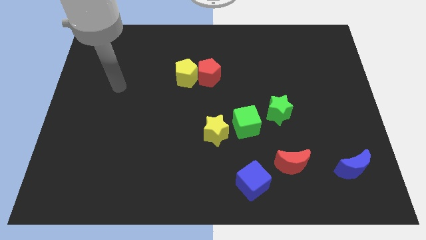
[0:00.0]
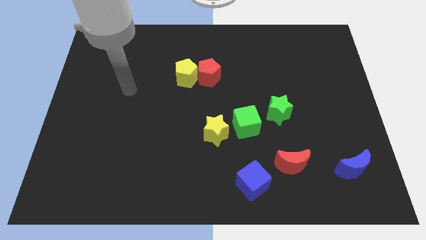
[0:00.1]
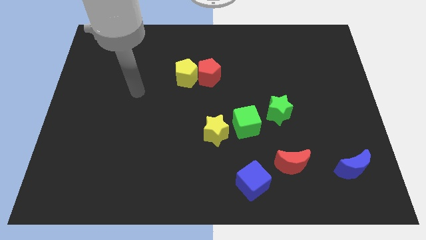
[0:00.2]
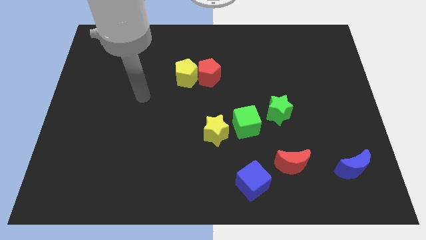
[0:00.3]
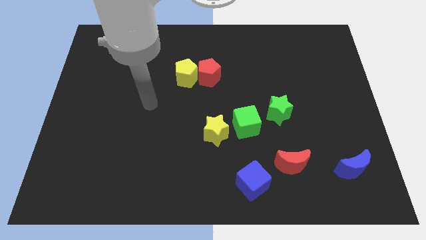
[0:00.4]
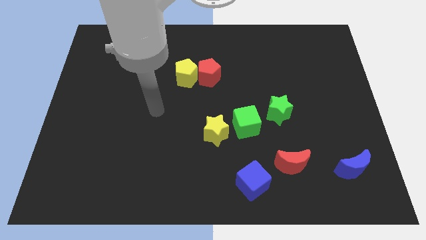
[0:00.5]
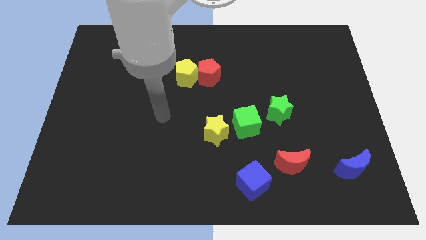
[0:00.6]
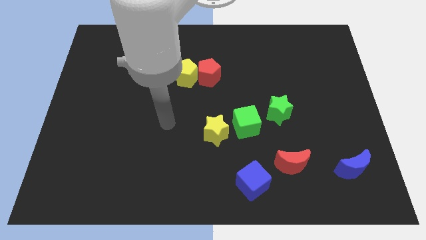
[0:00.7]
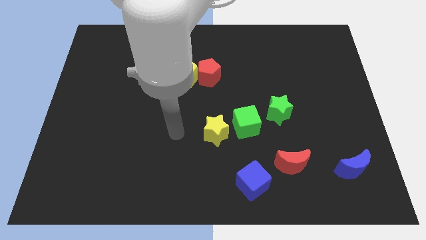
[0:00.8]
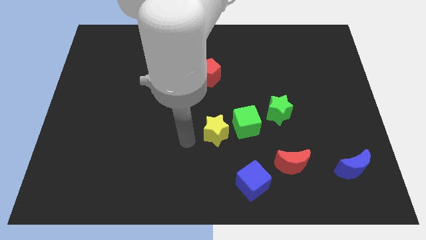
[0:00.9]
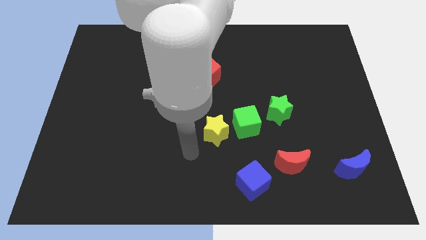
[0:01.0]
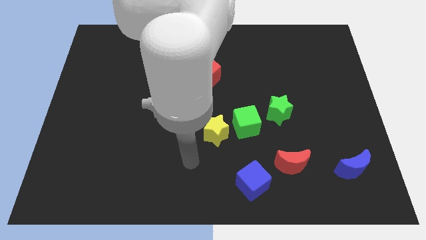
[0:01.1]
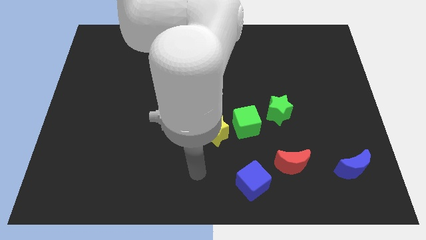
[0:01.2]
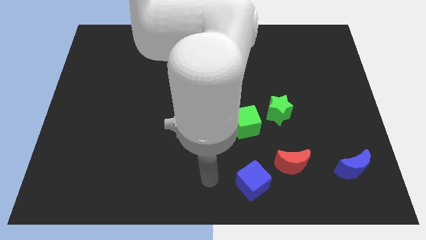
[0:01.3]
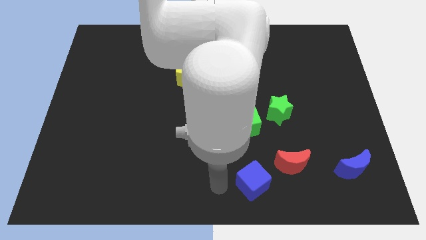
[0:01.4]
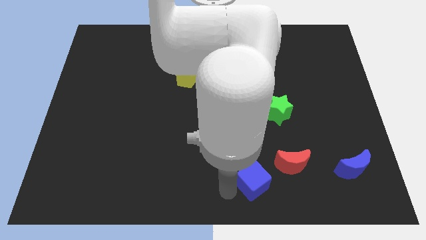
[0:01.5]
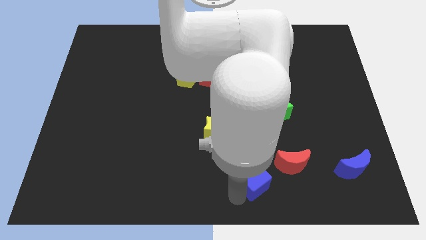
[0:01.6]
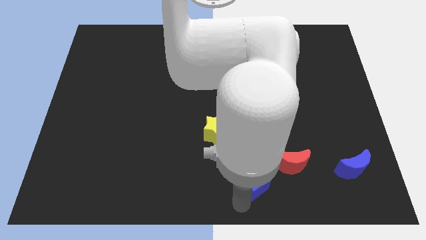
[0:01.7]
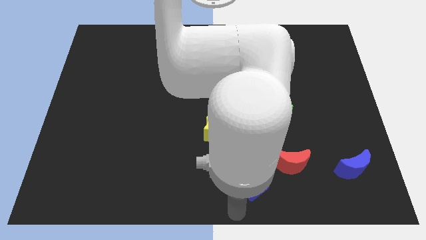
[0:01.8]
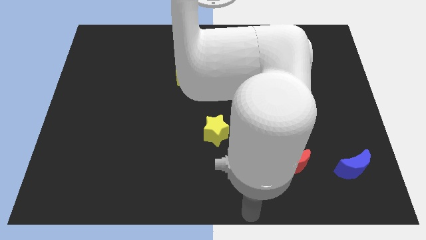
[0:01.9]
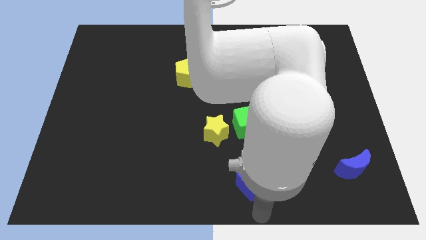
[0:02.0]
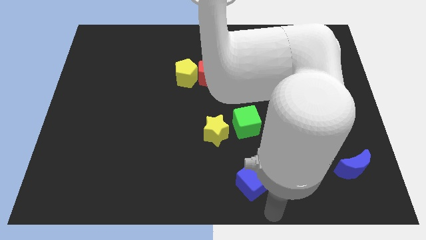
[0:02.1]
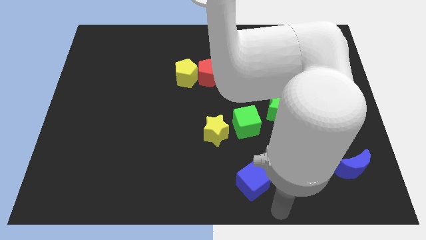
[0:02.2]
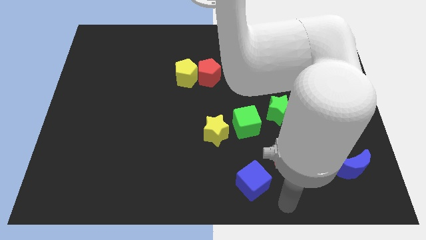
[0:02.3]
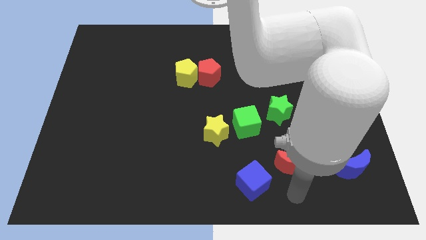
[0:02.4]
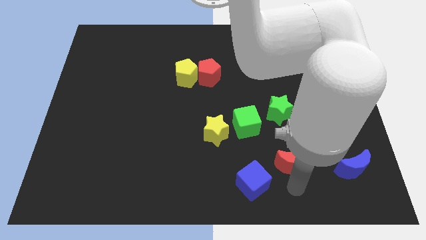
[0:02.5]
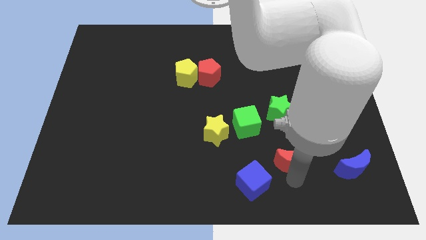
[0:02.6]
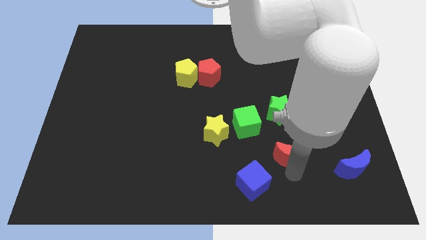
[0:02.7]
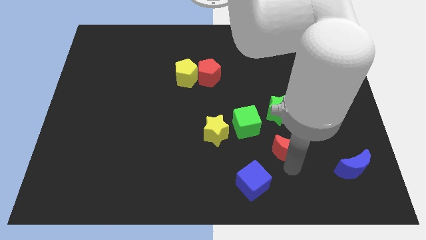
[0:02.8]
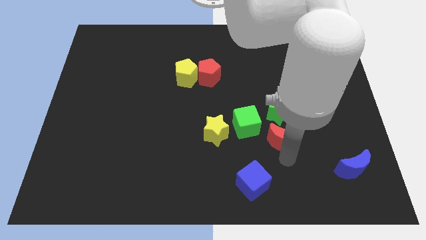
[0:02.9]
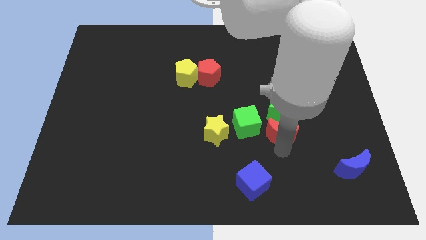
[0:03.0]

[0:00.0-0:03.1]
slightly move the red moon up

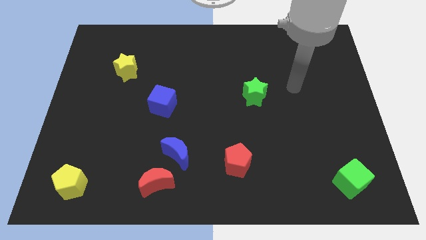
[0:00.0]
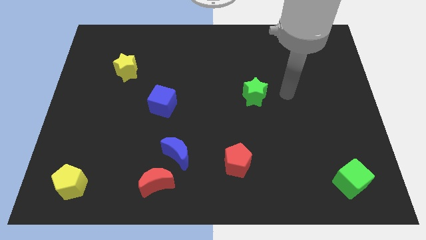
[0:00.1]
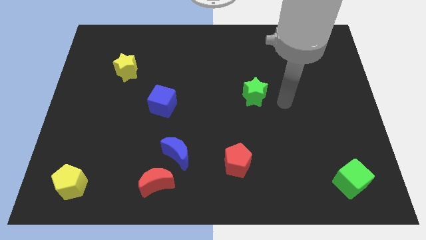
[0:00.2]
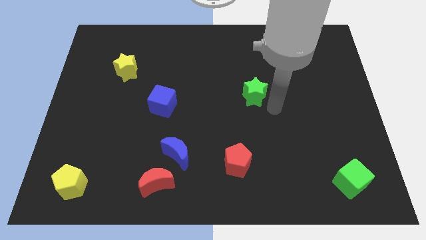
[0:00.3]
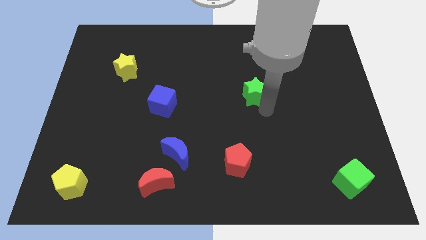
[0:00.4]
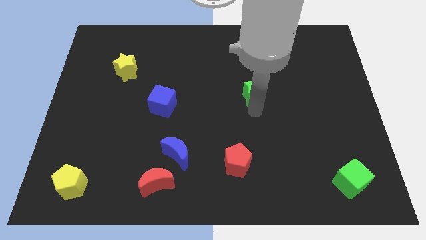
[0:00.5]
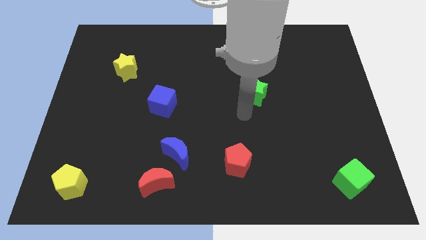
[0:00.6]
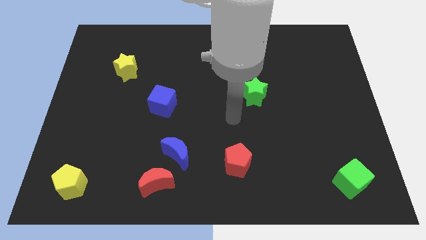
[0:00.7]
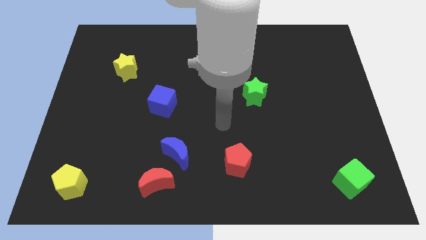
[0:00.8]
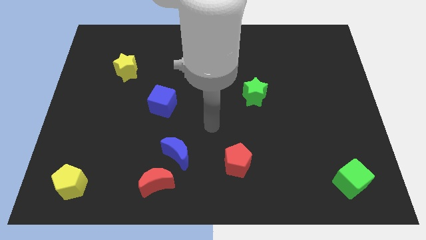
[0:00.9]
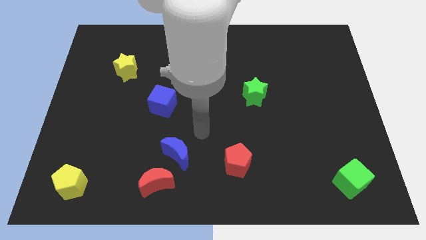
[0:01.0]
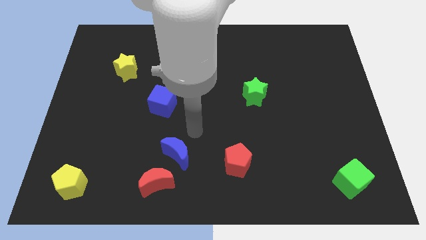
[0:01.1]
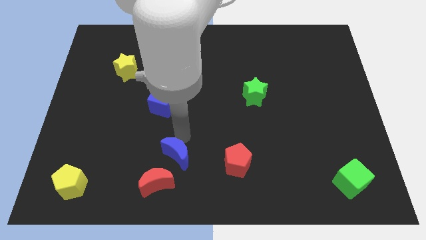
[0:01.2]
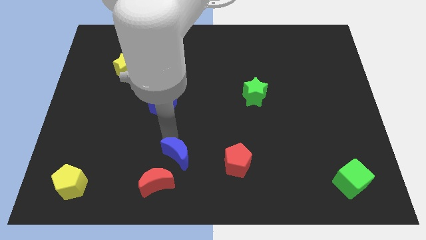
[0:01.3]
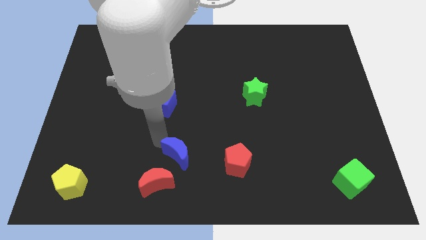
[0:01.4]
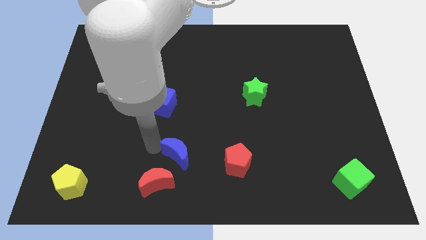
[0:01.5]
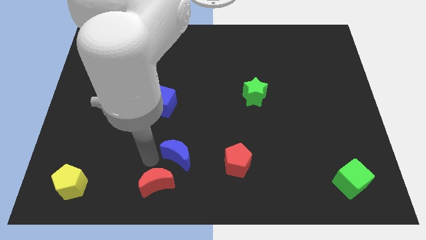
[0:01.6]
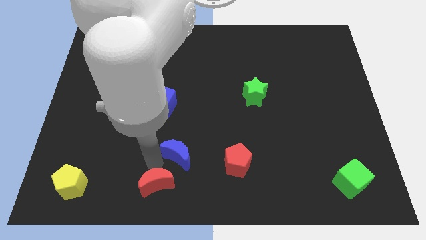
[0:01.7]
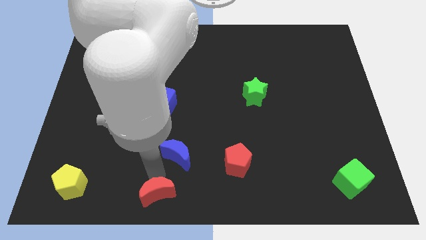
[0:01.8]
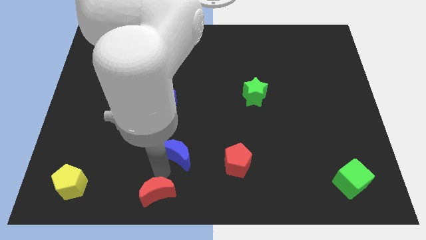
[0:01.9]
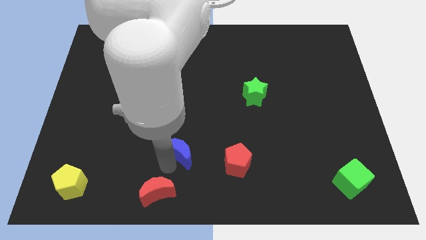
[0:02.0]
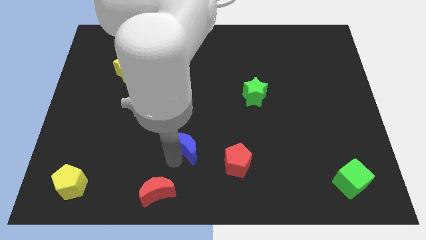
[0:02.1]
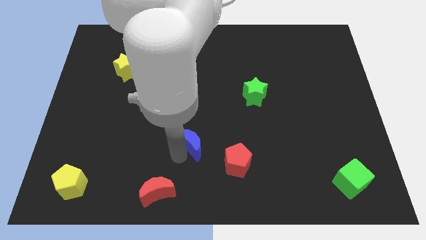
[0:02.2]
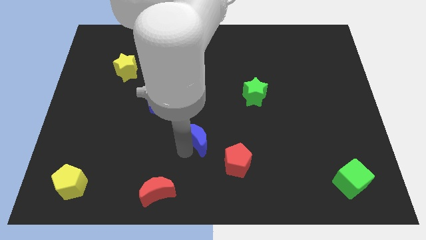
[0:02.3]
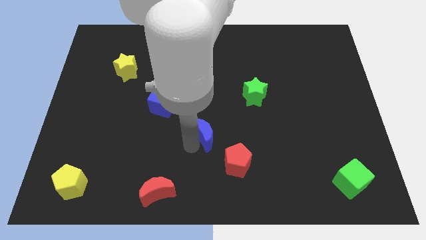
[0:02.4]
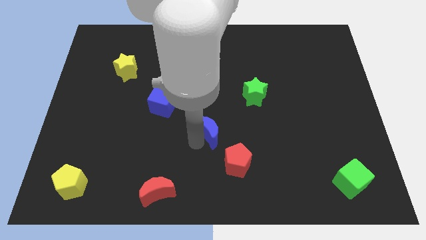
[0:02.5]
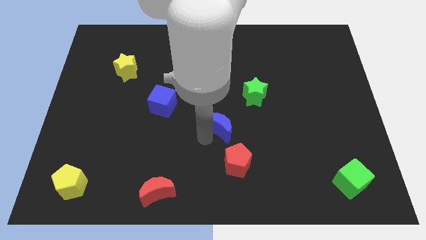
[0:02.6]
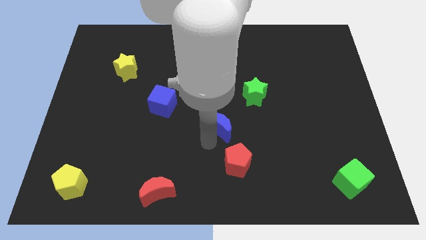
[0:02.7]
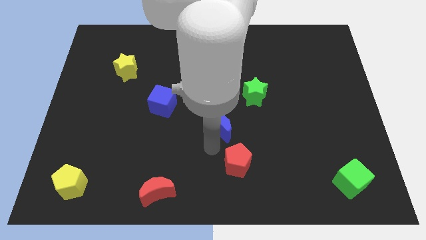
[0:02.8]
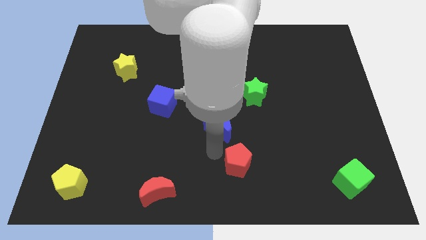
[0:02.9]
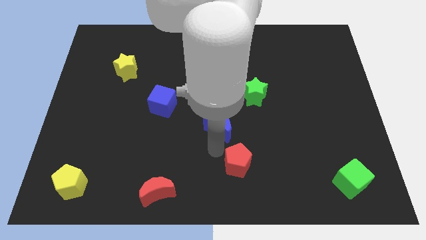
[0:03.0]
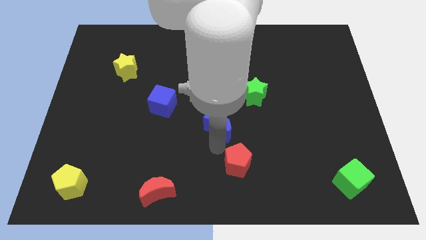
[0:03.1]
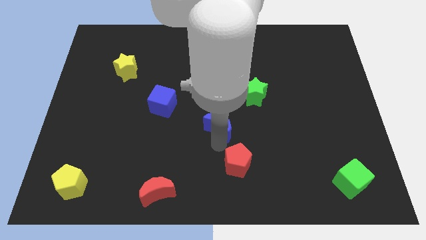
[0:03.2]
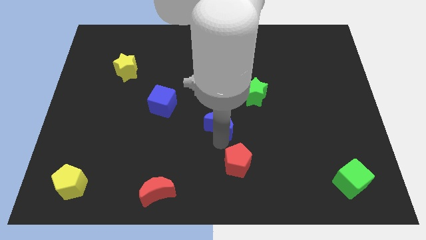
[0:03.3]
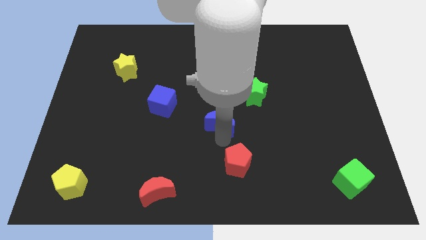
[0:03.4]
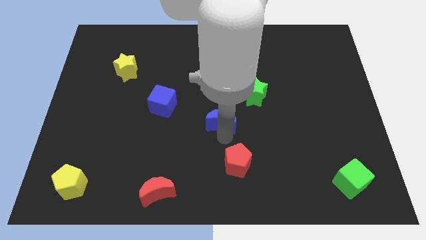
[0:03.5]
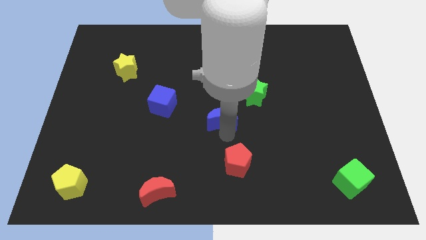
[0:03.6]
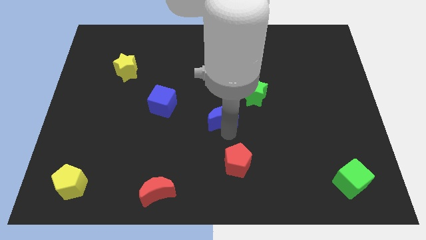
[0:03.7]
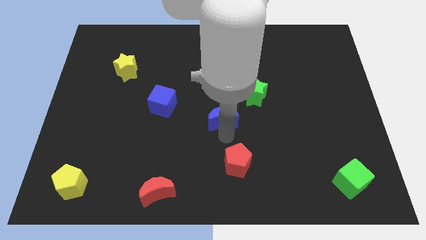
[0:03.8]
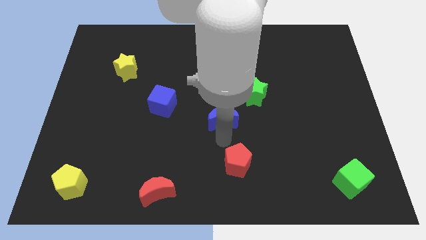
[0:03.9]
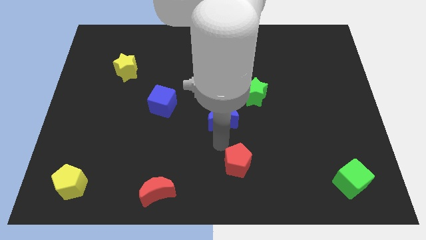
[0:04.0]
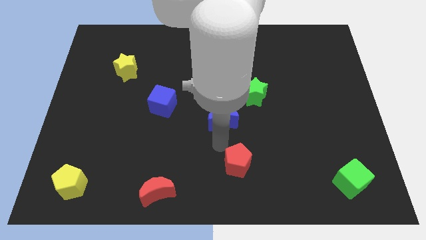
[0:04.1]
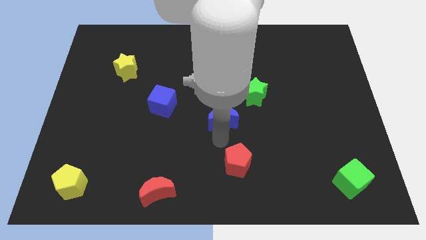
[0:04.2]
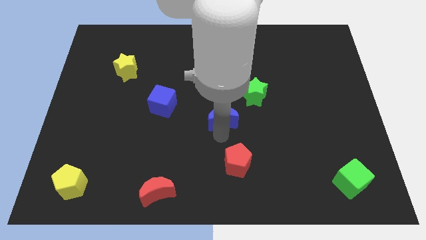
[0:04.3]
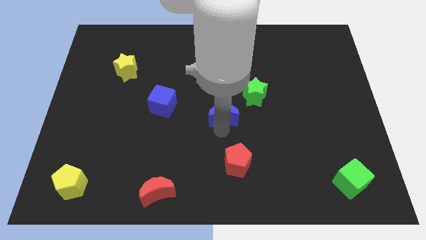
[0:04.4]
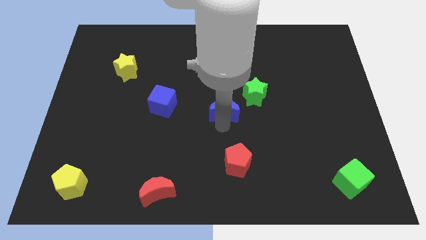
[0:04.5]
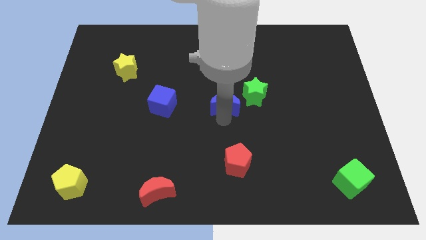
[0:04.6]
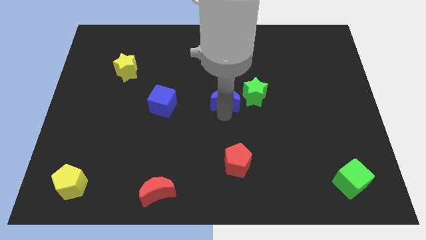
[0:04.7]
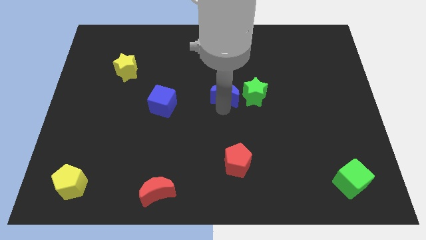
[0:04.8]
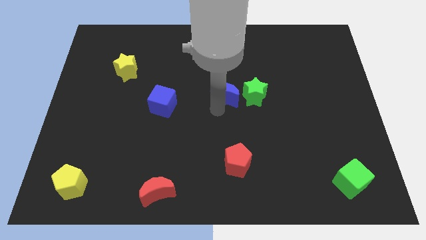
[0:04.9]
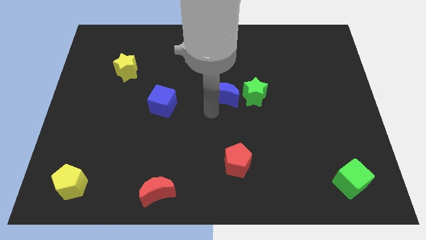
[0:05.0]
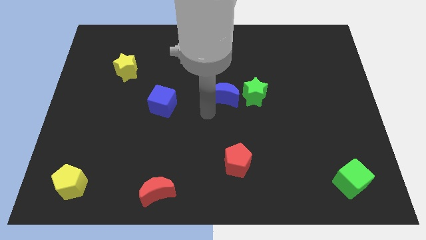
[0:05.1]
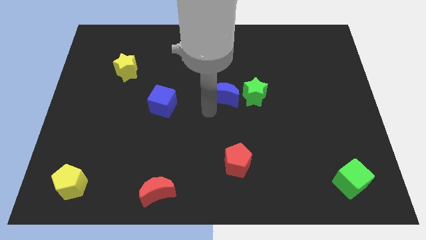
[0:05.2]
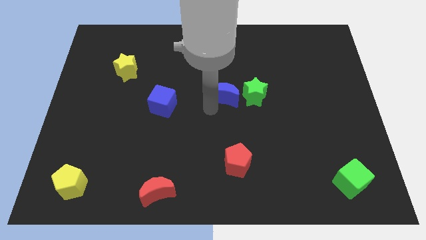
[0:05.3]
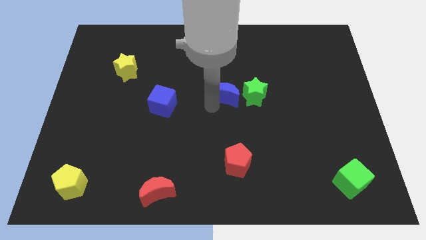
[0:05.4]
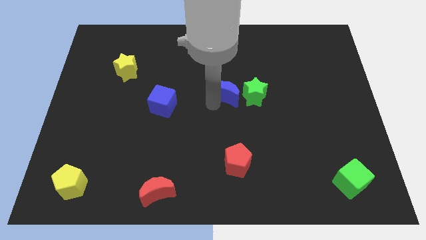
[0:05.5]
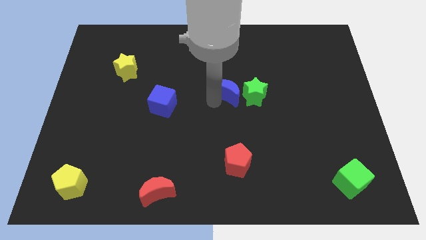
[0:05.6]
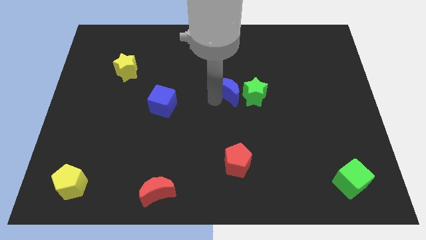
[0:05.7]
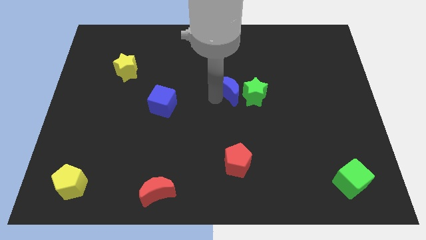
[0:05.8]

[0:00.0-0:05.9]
slide the blue moon up and to the right diagonally
